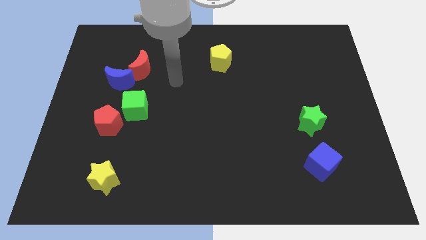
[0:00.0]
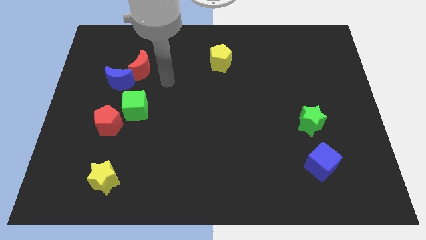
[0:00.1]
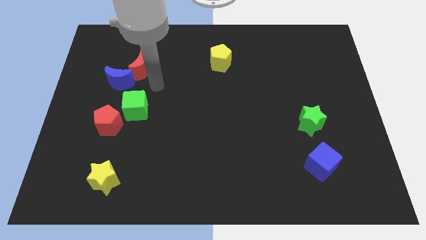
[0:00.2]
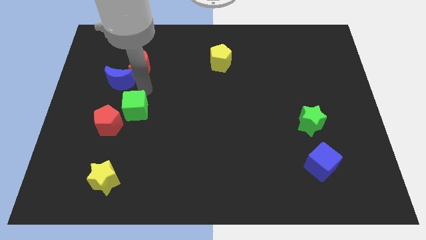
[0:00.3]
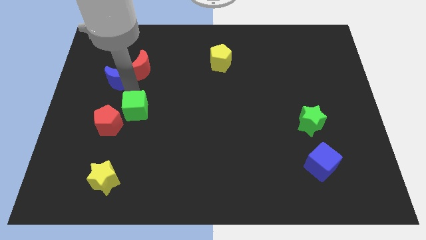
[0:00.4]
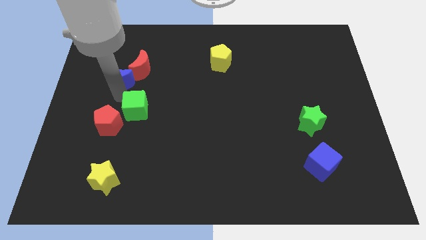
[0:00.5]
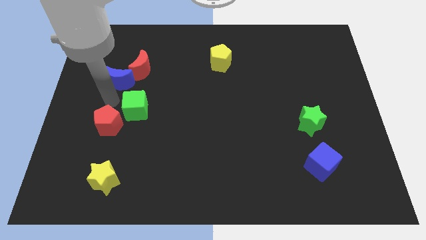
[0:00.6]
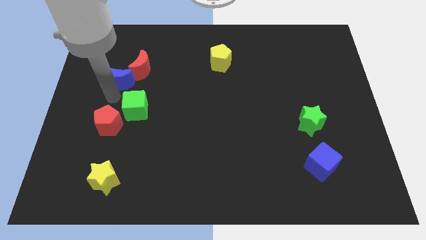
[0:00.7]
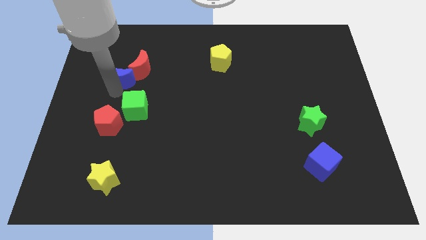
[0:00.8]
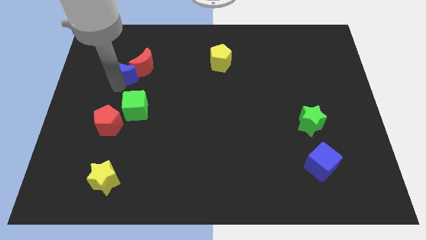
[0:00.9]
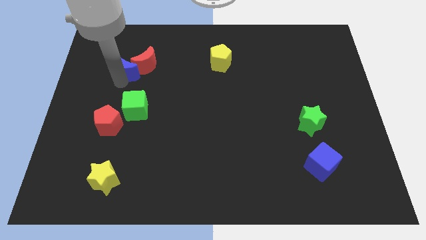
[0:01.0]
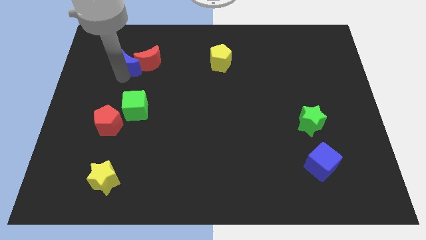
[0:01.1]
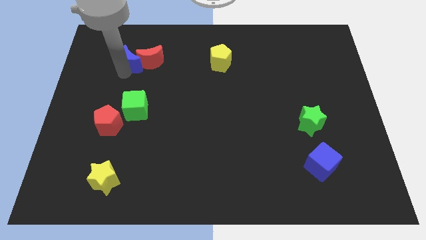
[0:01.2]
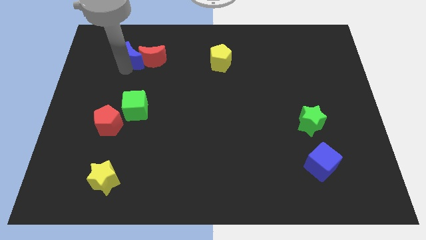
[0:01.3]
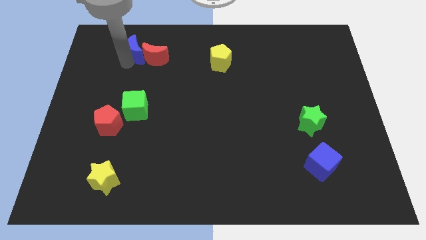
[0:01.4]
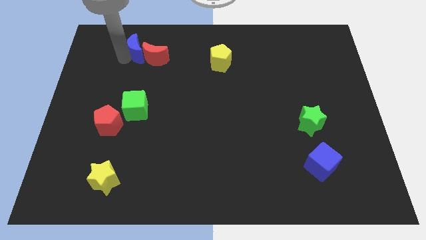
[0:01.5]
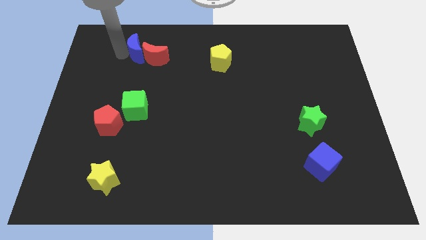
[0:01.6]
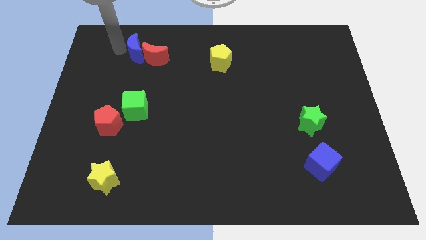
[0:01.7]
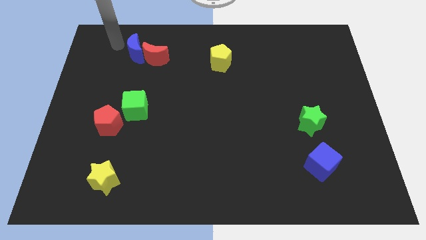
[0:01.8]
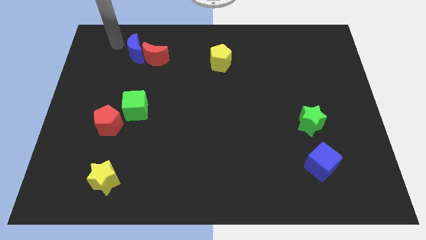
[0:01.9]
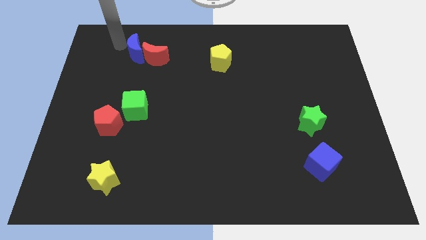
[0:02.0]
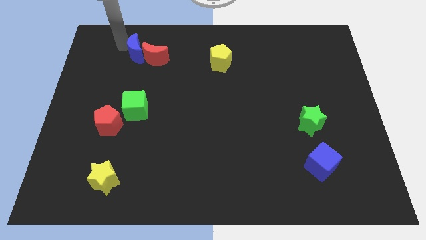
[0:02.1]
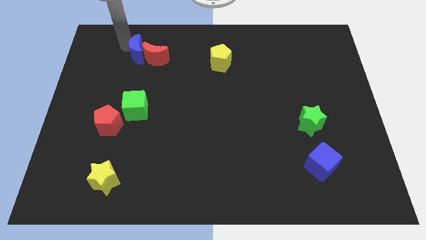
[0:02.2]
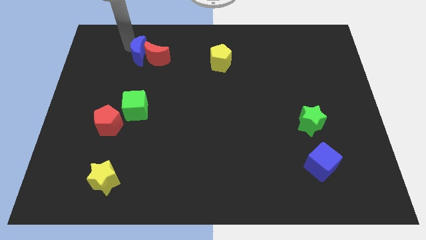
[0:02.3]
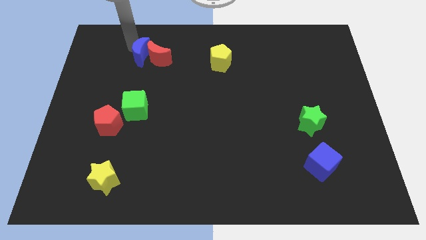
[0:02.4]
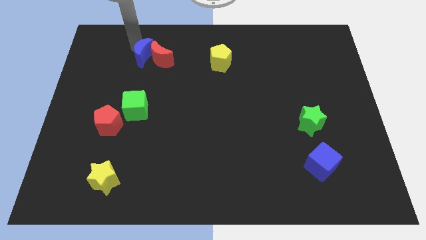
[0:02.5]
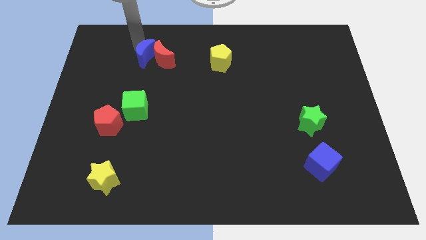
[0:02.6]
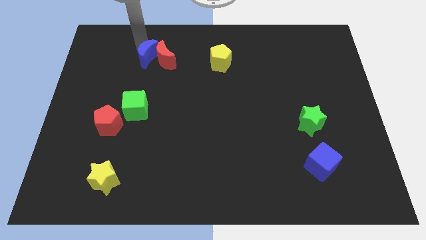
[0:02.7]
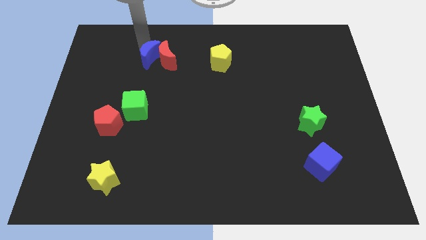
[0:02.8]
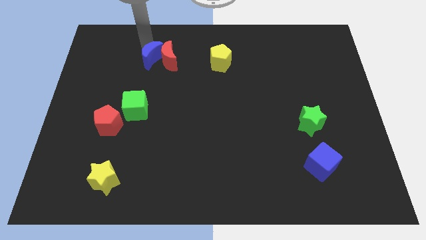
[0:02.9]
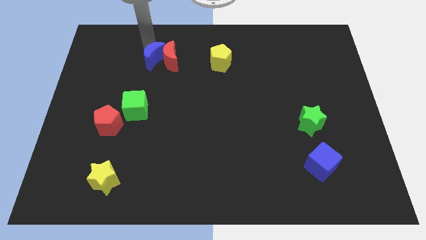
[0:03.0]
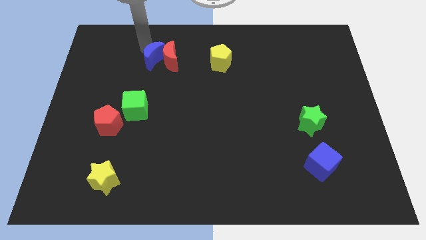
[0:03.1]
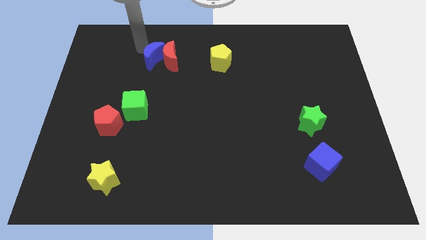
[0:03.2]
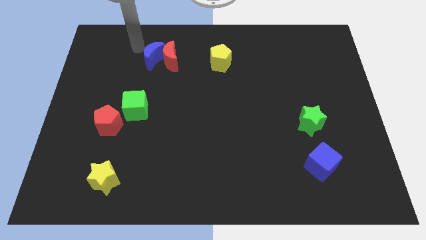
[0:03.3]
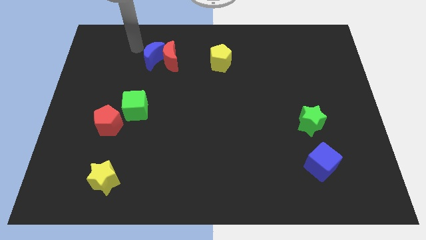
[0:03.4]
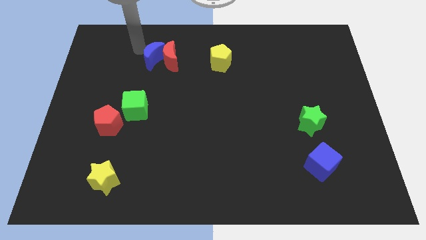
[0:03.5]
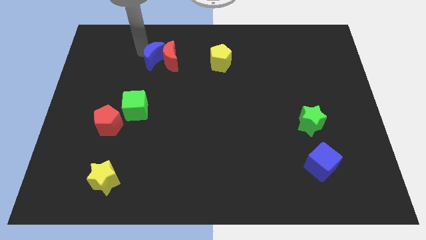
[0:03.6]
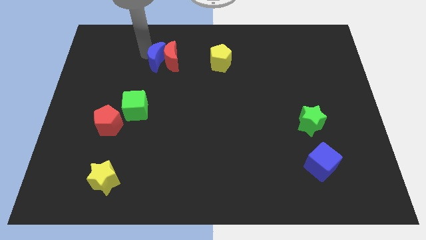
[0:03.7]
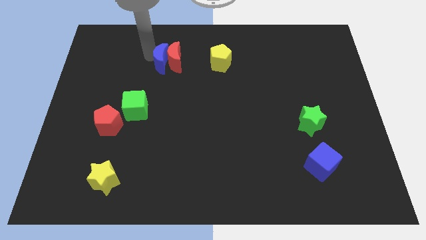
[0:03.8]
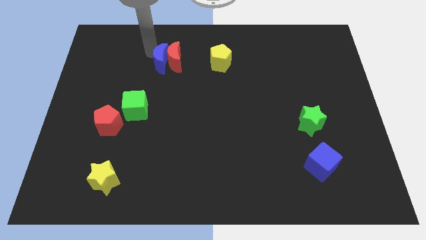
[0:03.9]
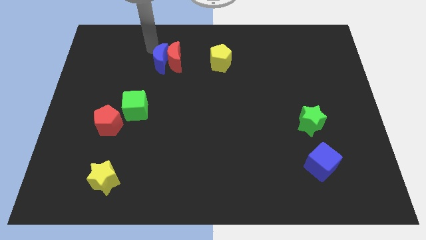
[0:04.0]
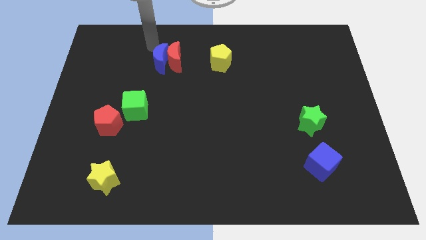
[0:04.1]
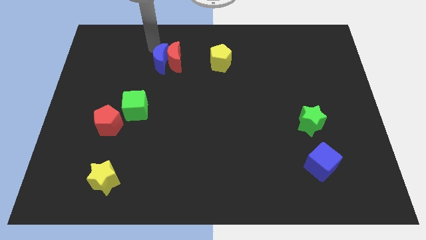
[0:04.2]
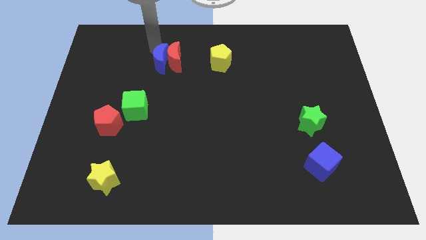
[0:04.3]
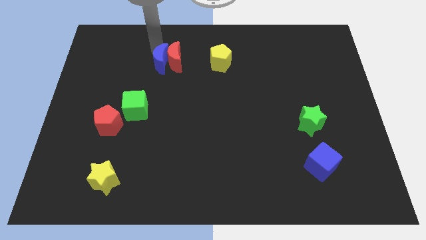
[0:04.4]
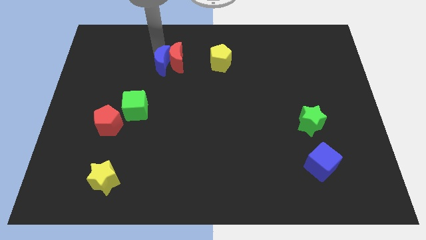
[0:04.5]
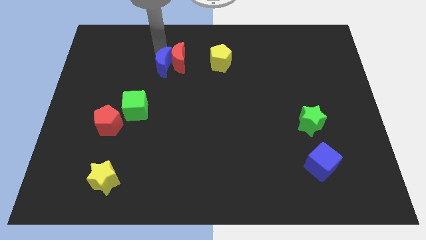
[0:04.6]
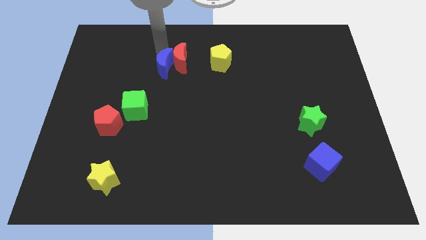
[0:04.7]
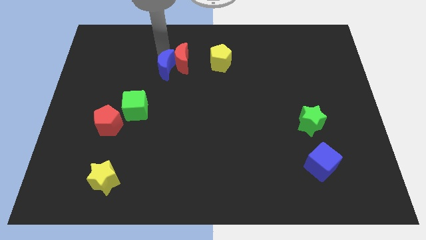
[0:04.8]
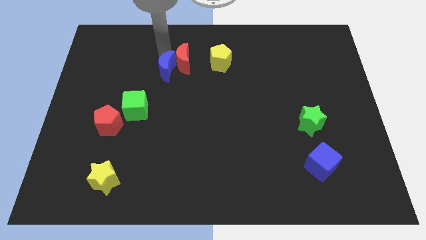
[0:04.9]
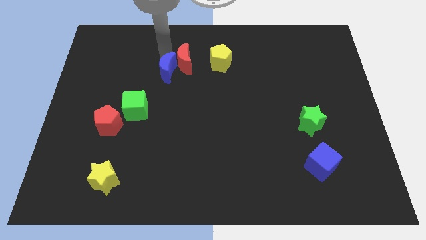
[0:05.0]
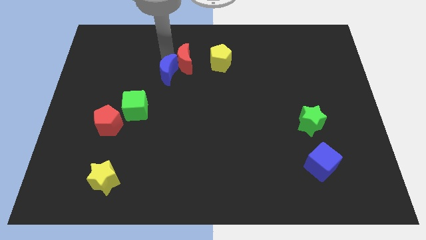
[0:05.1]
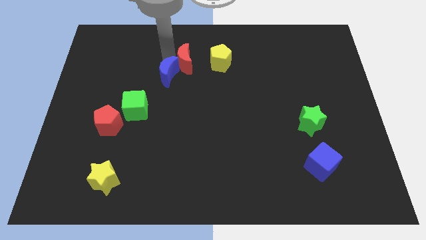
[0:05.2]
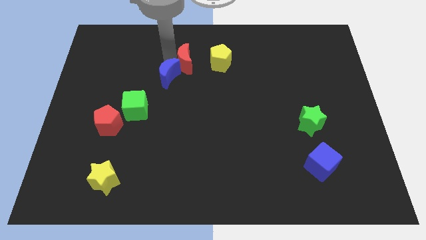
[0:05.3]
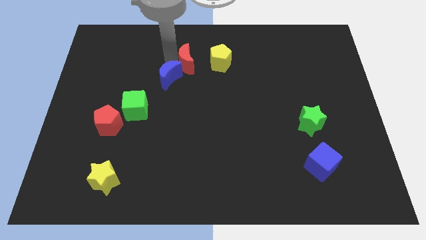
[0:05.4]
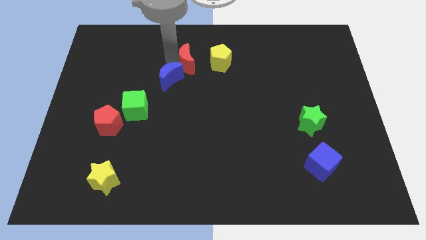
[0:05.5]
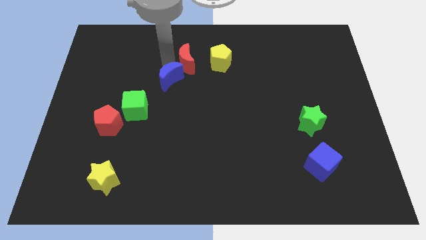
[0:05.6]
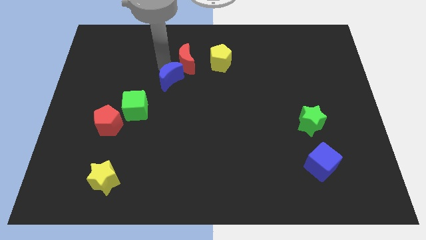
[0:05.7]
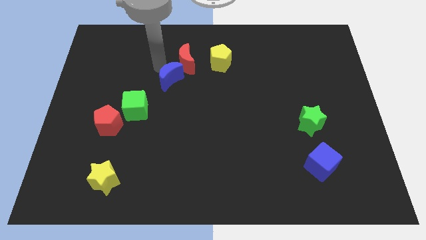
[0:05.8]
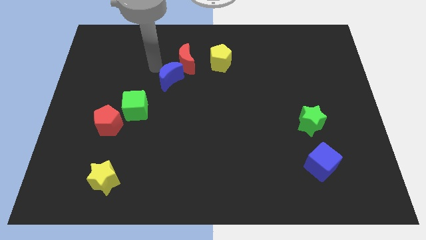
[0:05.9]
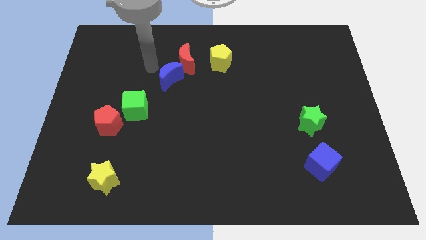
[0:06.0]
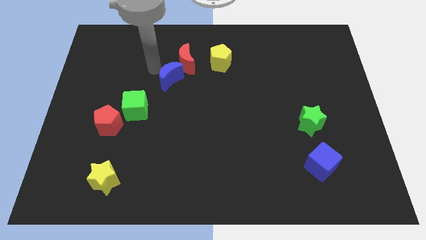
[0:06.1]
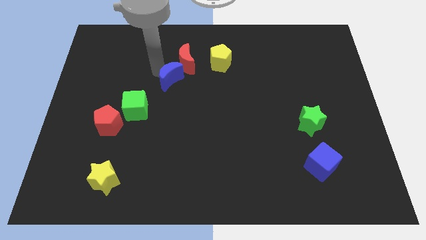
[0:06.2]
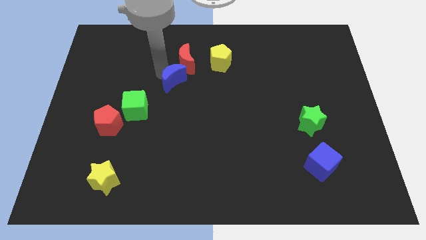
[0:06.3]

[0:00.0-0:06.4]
put the blue moon to the middle of the board
